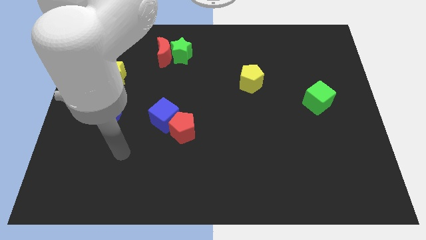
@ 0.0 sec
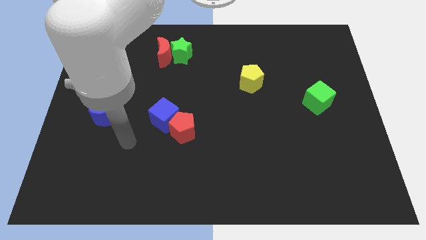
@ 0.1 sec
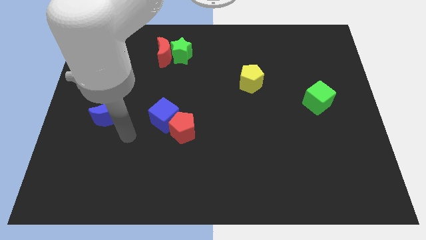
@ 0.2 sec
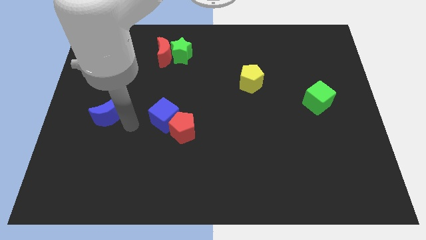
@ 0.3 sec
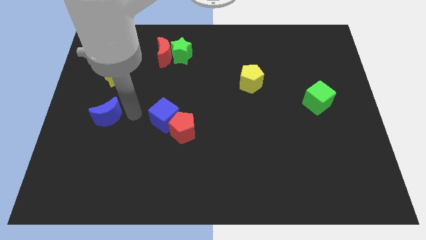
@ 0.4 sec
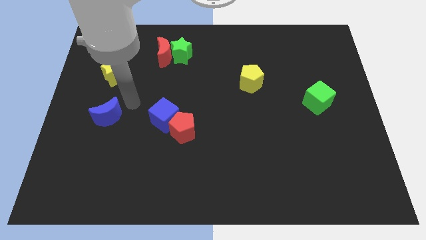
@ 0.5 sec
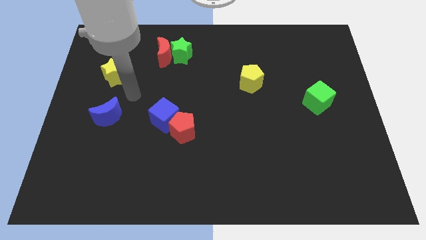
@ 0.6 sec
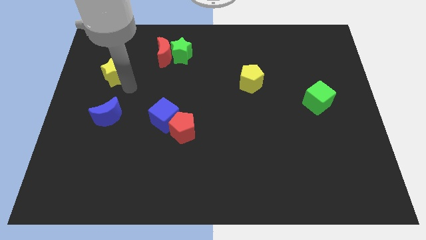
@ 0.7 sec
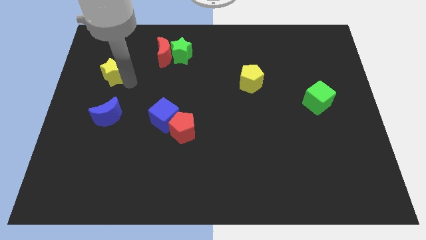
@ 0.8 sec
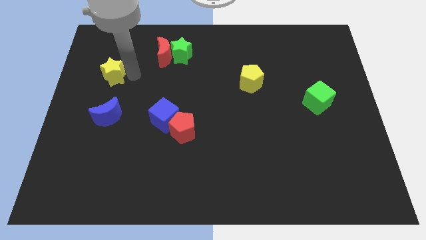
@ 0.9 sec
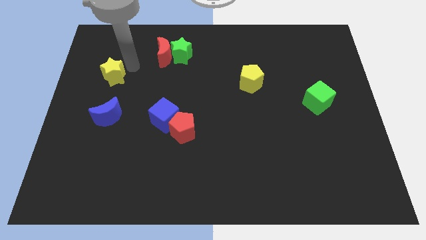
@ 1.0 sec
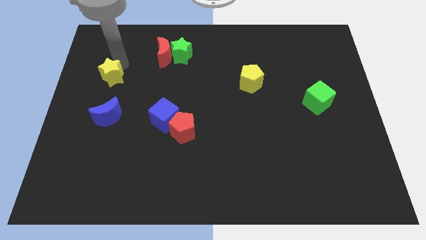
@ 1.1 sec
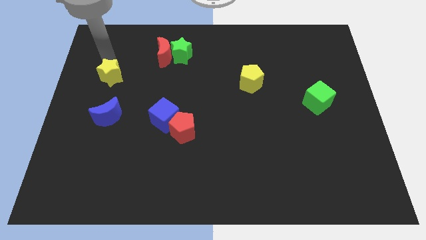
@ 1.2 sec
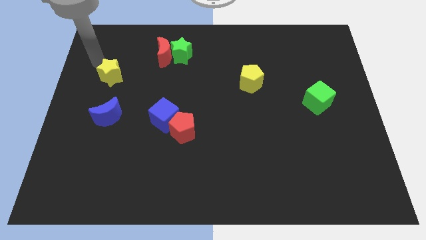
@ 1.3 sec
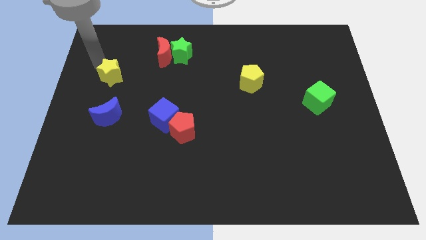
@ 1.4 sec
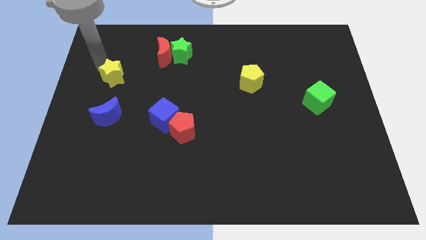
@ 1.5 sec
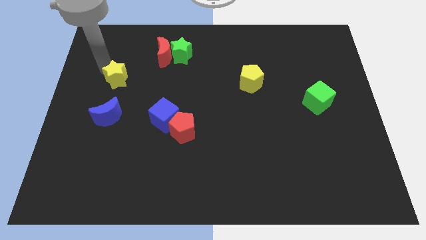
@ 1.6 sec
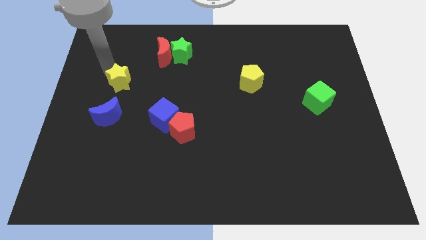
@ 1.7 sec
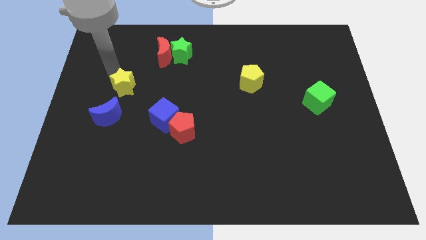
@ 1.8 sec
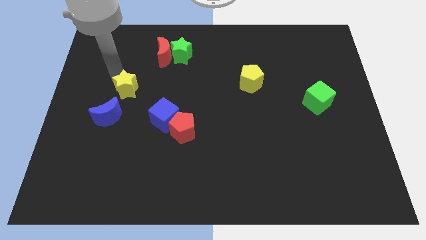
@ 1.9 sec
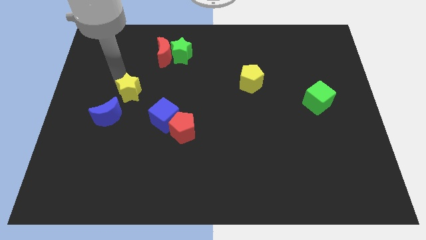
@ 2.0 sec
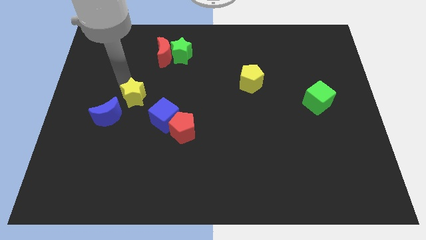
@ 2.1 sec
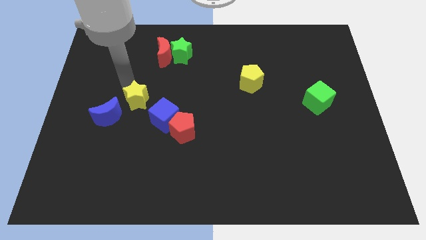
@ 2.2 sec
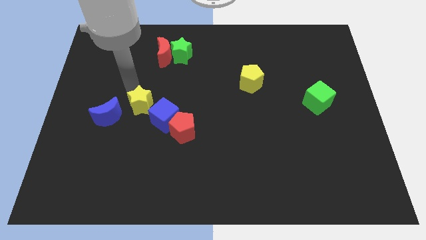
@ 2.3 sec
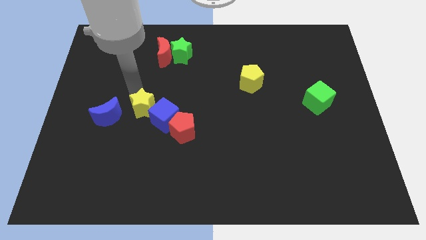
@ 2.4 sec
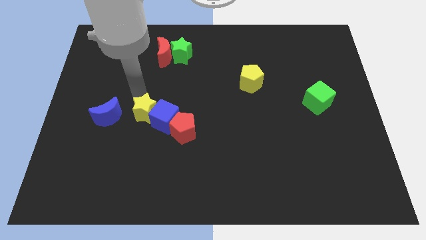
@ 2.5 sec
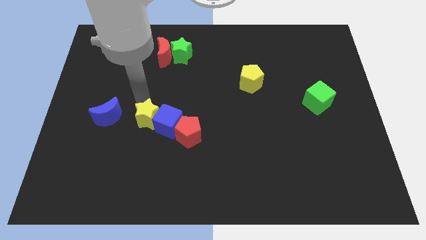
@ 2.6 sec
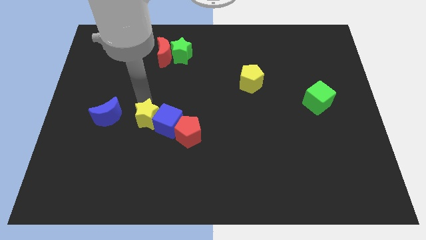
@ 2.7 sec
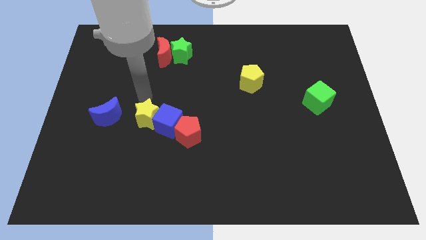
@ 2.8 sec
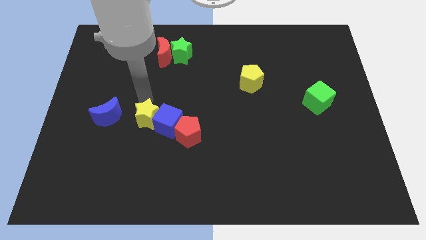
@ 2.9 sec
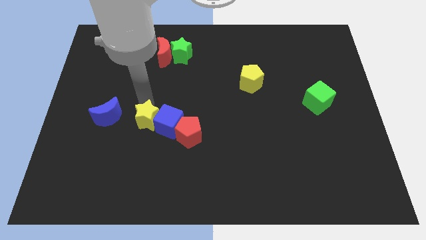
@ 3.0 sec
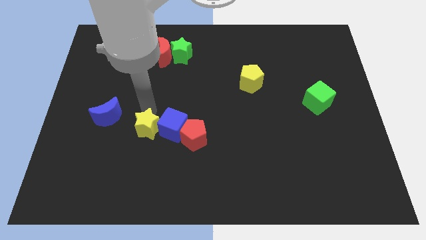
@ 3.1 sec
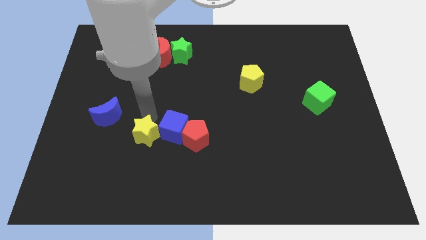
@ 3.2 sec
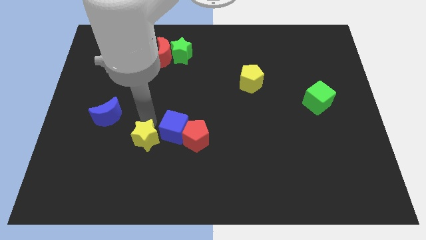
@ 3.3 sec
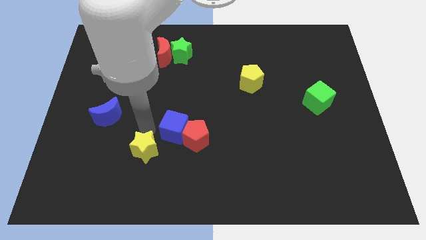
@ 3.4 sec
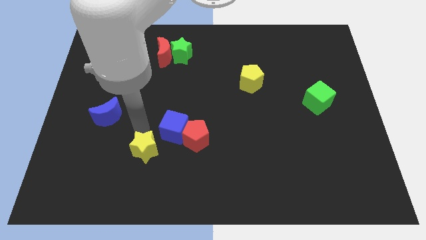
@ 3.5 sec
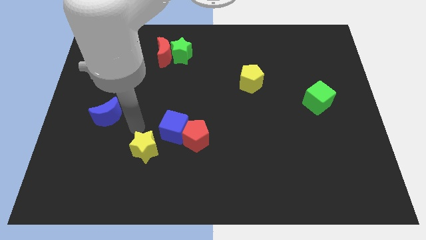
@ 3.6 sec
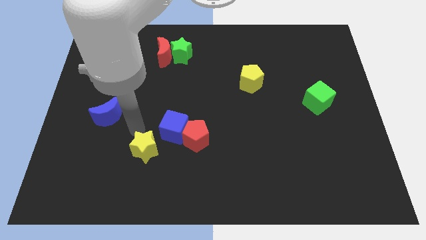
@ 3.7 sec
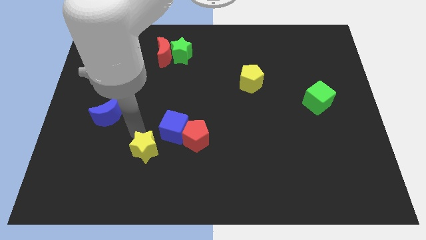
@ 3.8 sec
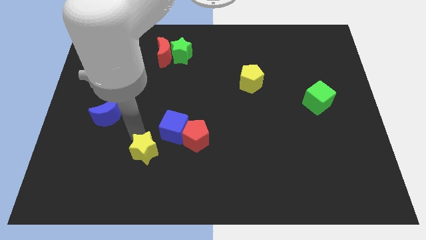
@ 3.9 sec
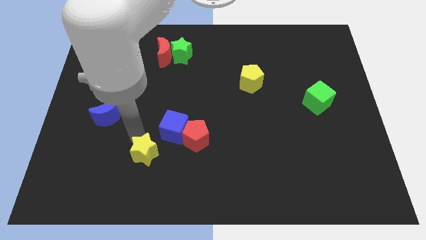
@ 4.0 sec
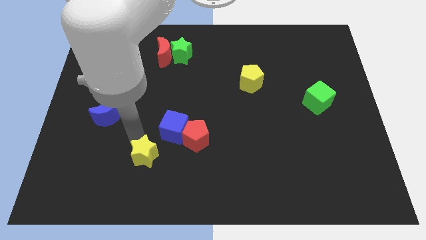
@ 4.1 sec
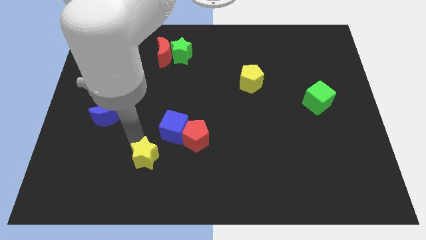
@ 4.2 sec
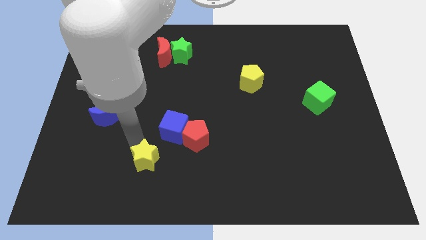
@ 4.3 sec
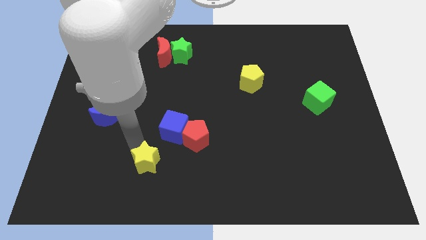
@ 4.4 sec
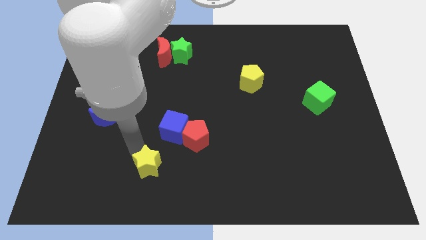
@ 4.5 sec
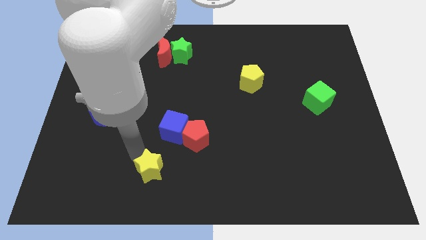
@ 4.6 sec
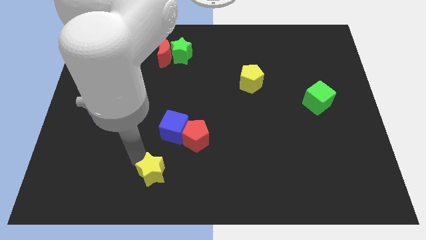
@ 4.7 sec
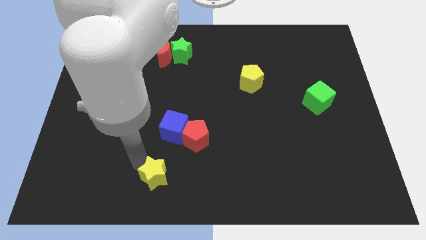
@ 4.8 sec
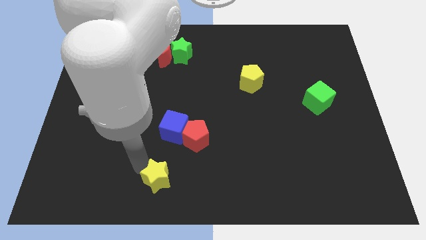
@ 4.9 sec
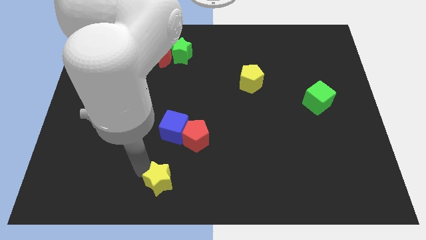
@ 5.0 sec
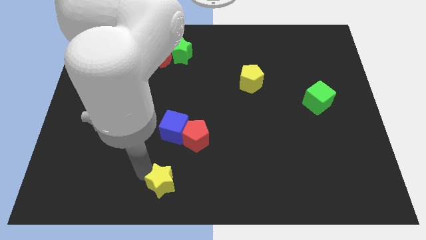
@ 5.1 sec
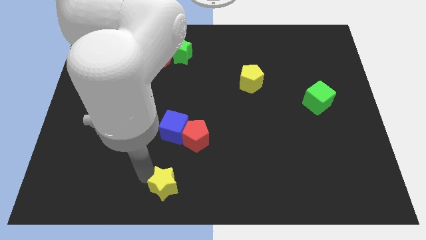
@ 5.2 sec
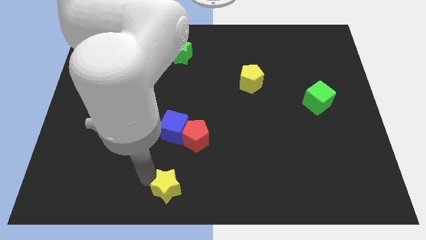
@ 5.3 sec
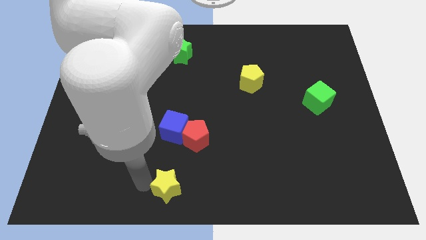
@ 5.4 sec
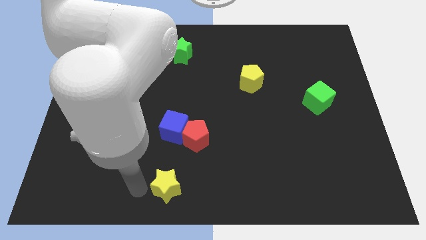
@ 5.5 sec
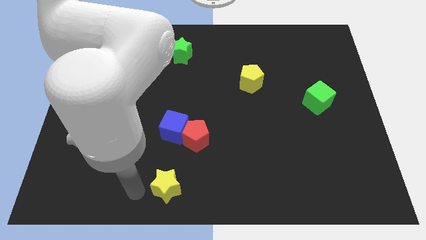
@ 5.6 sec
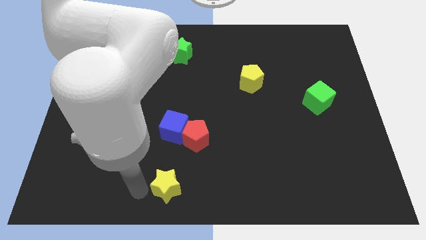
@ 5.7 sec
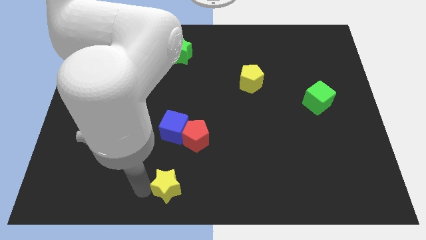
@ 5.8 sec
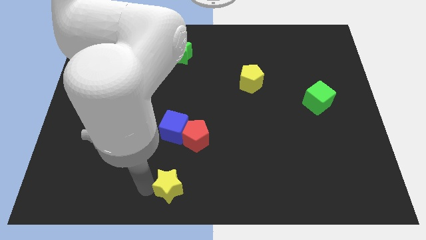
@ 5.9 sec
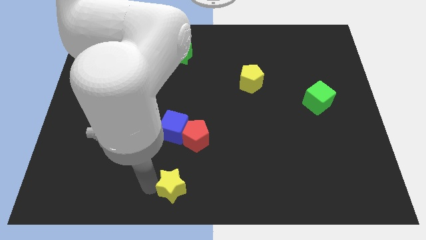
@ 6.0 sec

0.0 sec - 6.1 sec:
push the yellow star to the bottom side of the red pentagon
